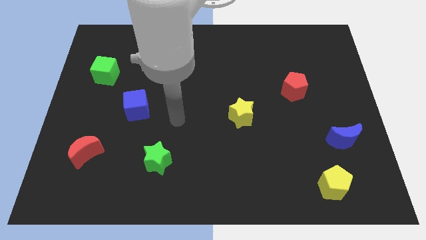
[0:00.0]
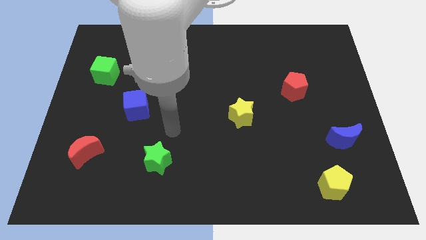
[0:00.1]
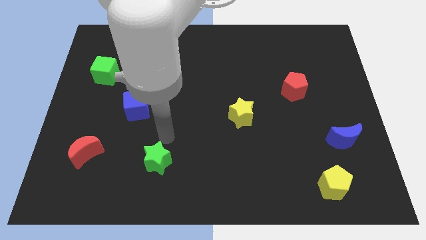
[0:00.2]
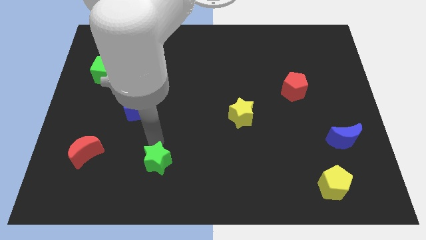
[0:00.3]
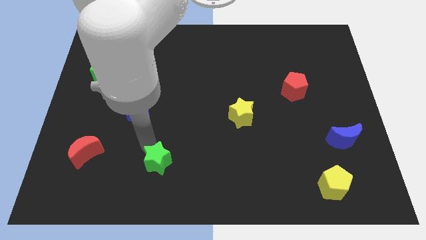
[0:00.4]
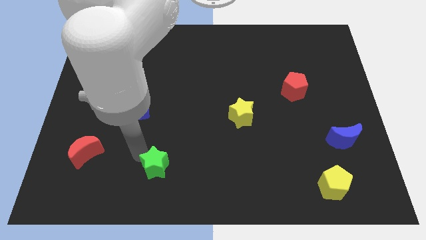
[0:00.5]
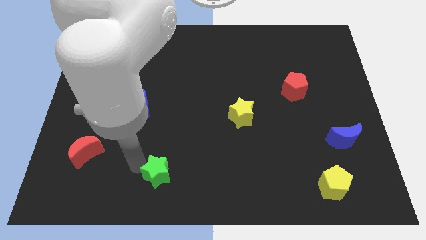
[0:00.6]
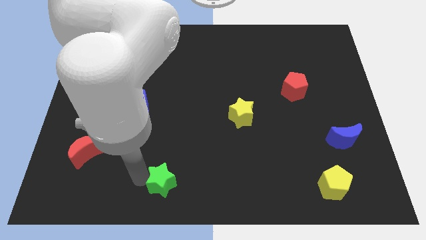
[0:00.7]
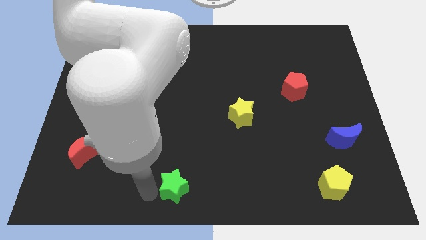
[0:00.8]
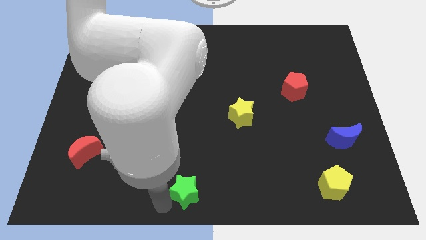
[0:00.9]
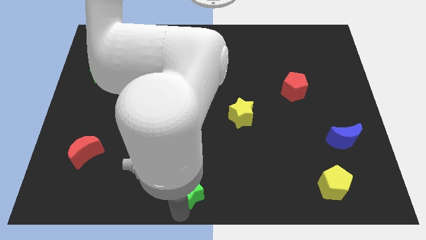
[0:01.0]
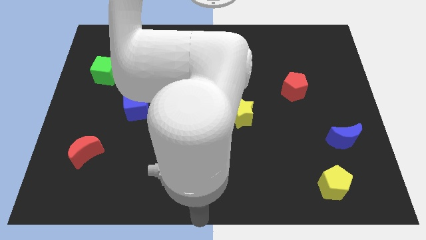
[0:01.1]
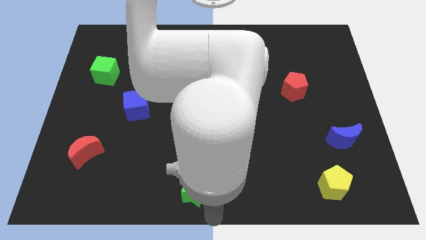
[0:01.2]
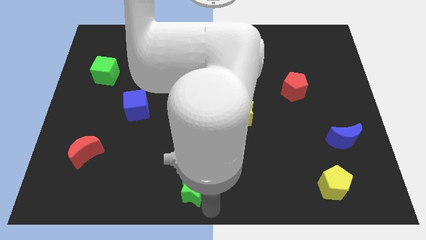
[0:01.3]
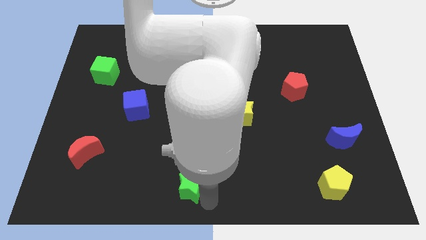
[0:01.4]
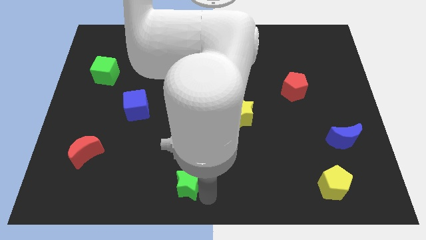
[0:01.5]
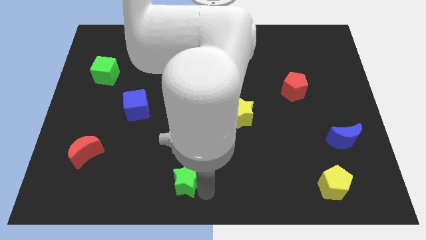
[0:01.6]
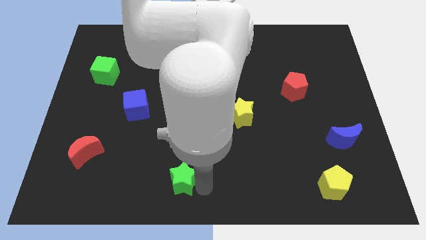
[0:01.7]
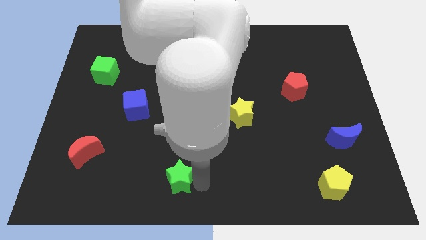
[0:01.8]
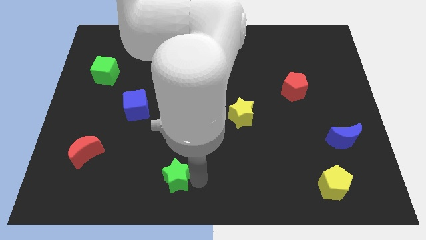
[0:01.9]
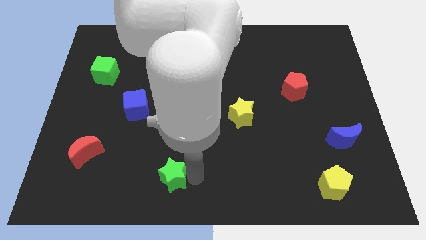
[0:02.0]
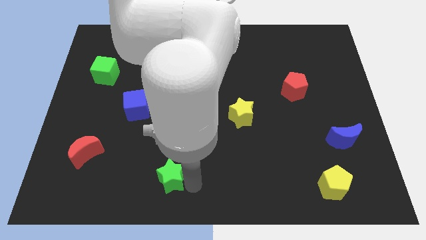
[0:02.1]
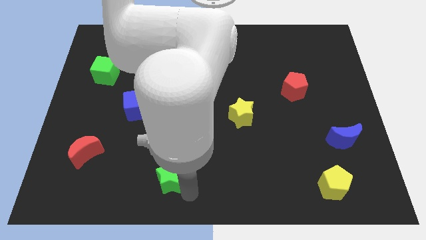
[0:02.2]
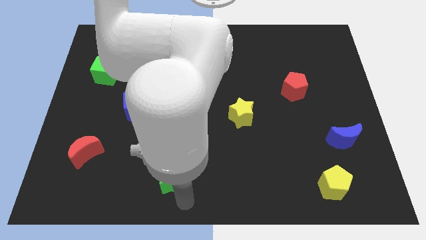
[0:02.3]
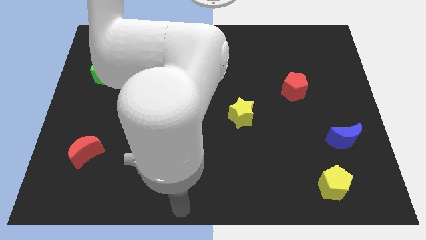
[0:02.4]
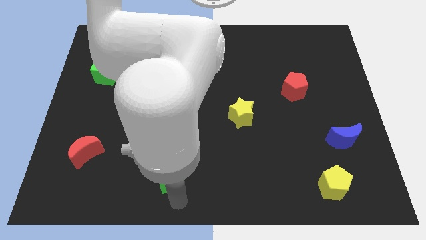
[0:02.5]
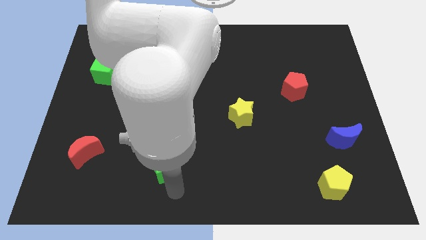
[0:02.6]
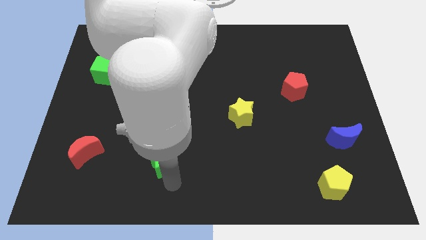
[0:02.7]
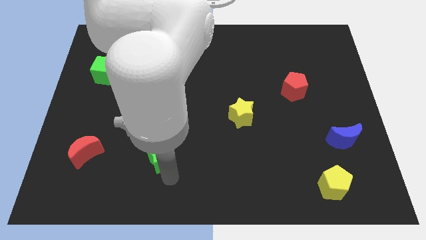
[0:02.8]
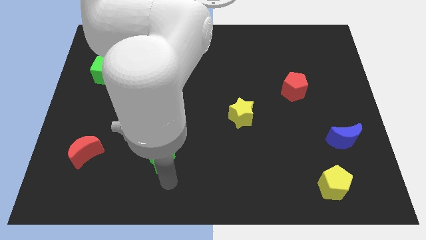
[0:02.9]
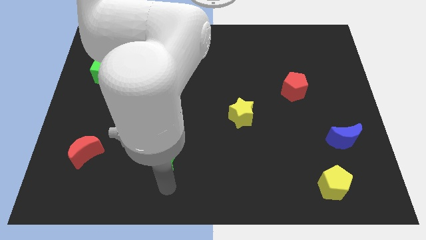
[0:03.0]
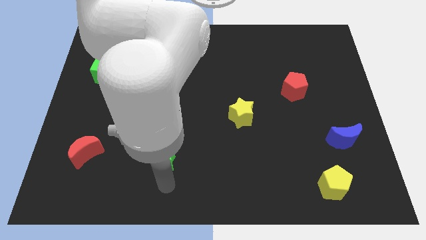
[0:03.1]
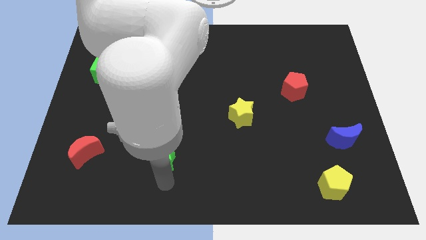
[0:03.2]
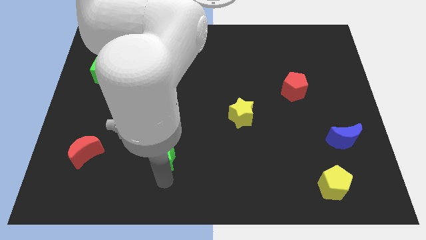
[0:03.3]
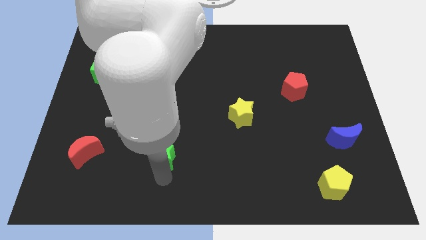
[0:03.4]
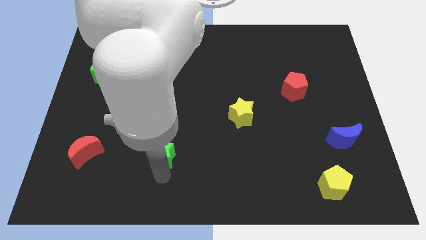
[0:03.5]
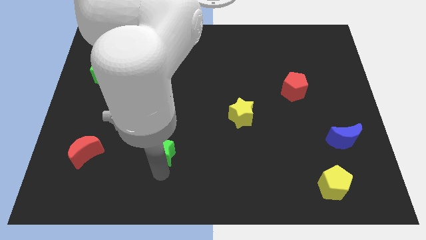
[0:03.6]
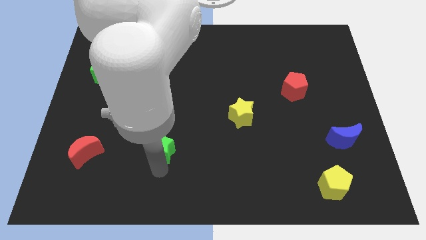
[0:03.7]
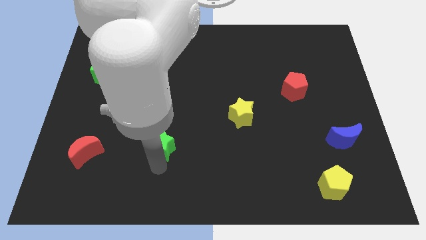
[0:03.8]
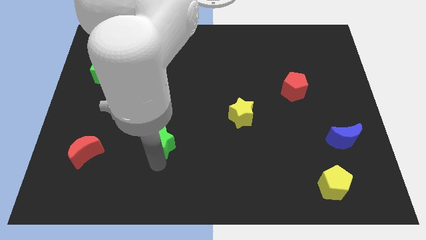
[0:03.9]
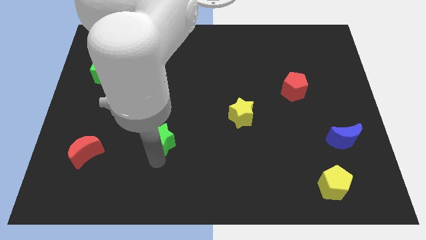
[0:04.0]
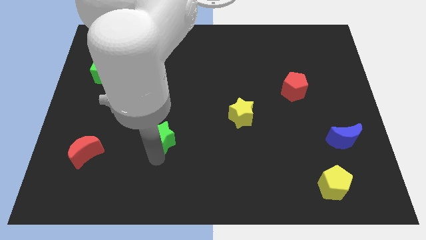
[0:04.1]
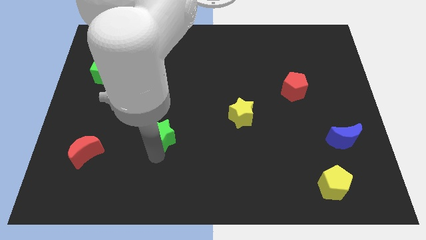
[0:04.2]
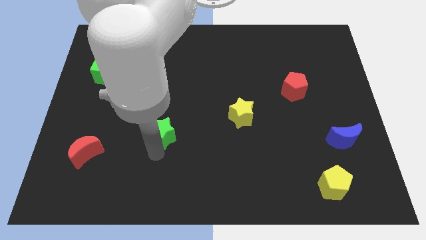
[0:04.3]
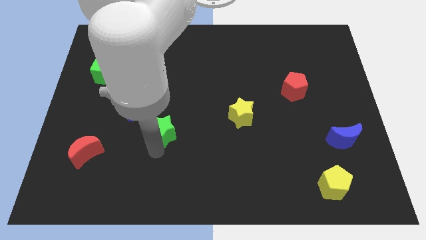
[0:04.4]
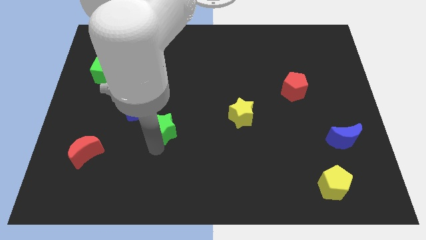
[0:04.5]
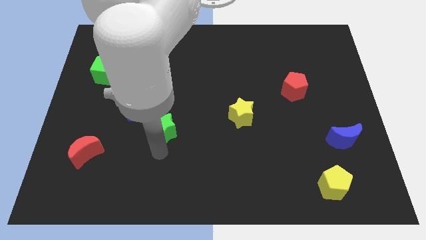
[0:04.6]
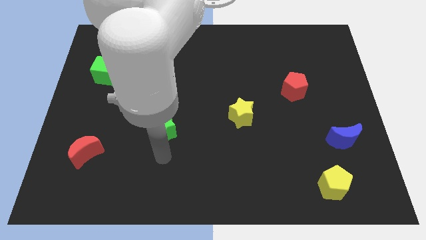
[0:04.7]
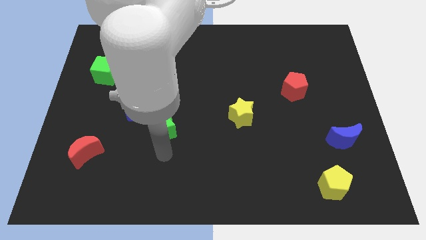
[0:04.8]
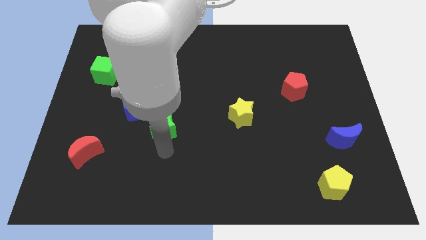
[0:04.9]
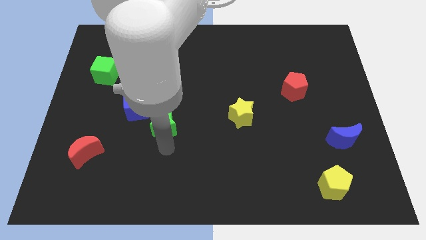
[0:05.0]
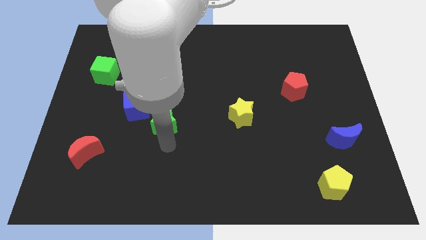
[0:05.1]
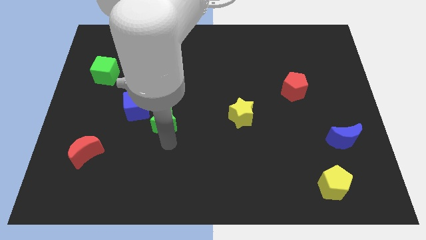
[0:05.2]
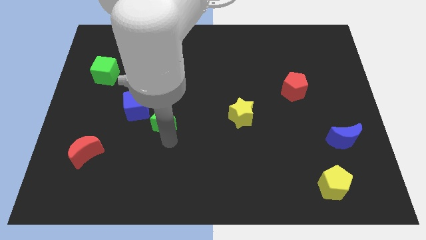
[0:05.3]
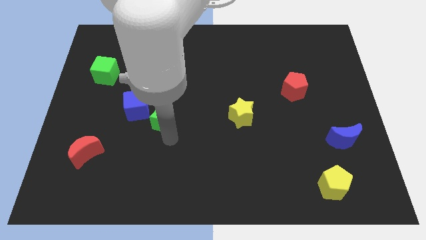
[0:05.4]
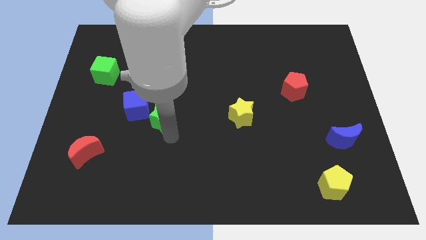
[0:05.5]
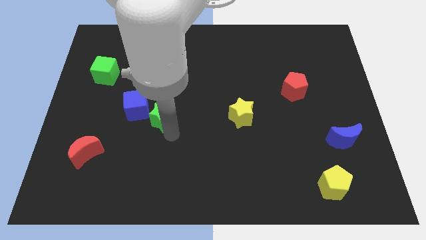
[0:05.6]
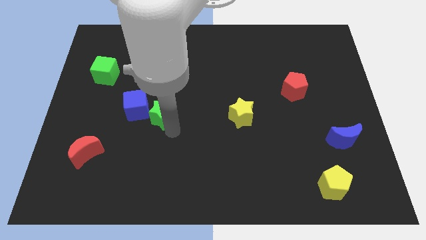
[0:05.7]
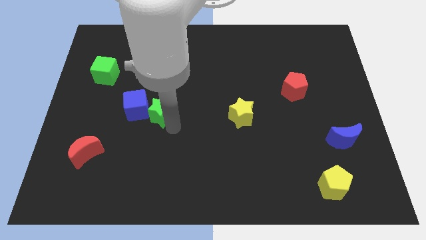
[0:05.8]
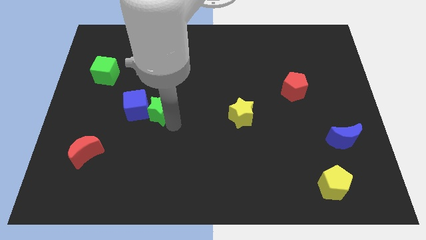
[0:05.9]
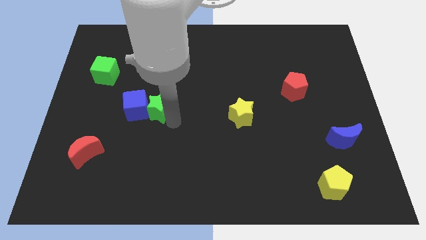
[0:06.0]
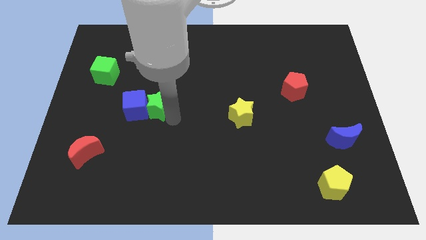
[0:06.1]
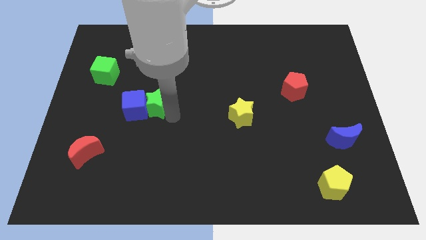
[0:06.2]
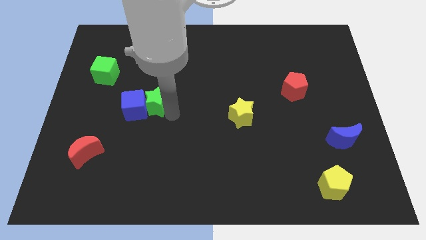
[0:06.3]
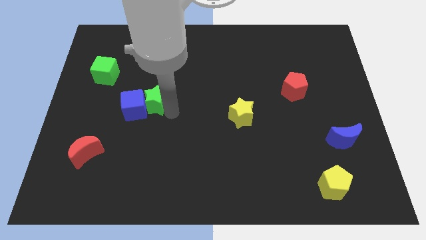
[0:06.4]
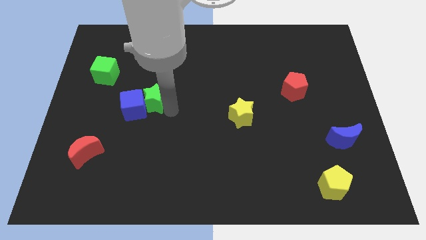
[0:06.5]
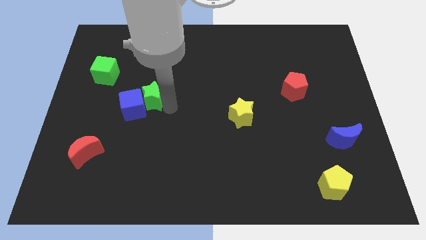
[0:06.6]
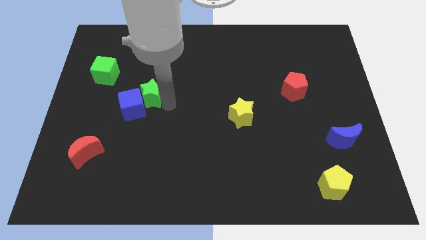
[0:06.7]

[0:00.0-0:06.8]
slide the green star to the top of the blue cube
